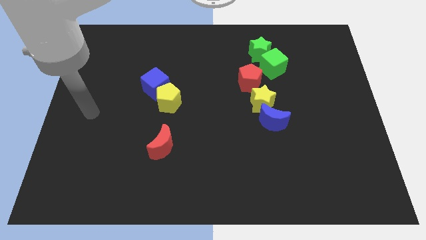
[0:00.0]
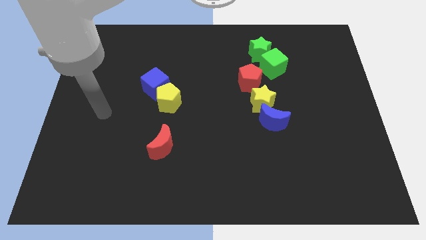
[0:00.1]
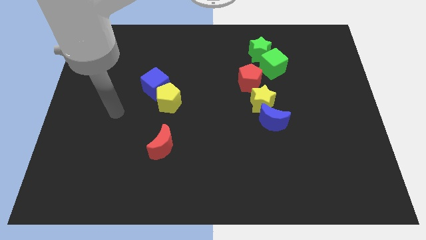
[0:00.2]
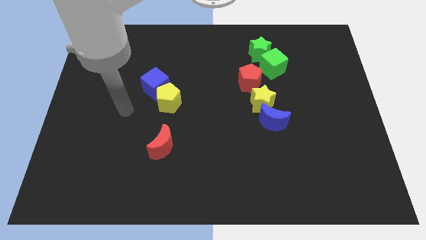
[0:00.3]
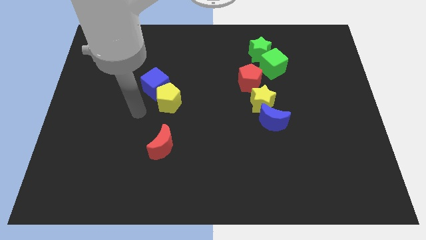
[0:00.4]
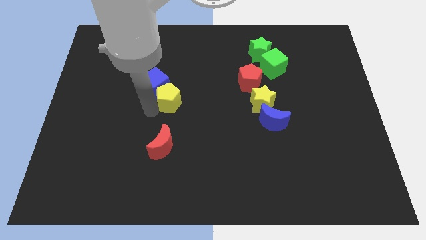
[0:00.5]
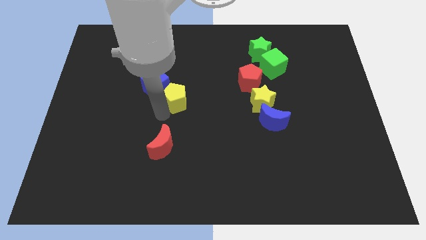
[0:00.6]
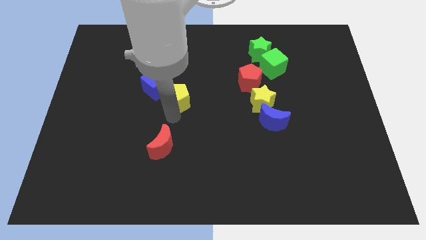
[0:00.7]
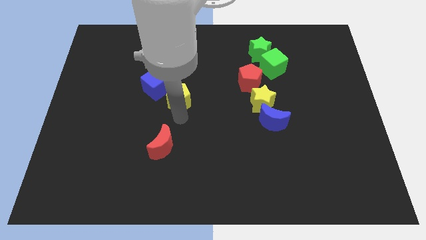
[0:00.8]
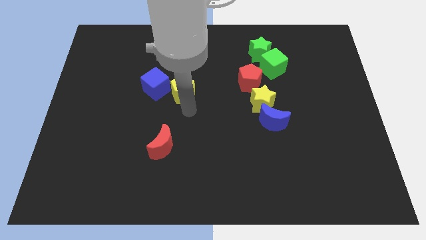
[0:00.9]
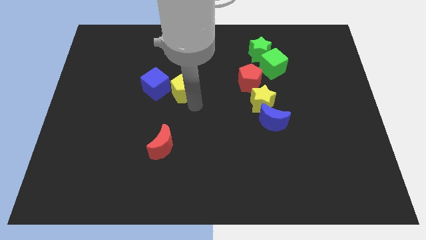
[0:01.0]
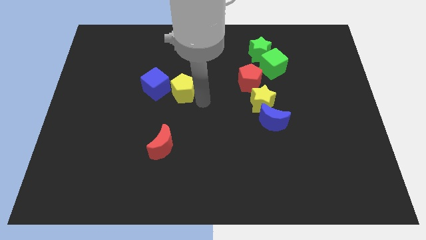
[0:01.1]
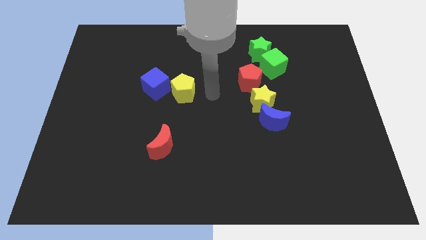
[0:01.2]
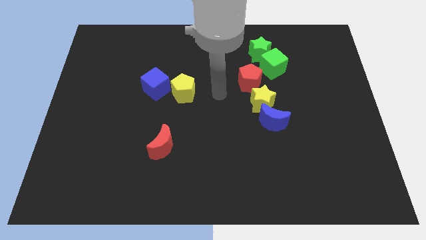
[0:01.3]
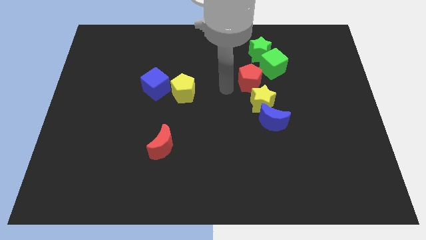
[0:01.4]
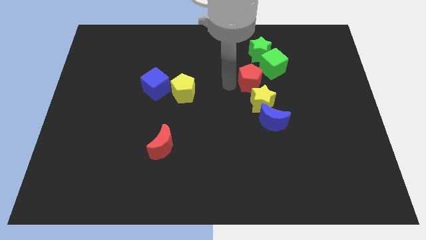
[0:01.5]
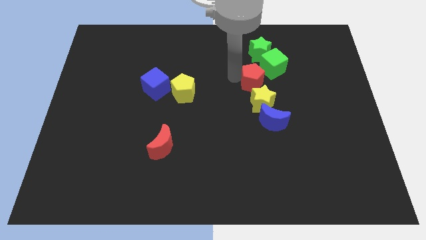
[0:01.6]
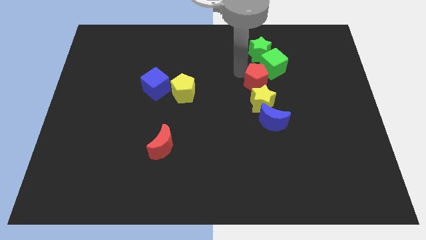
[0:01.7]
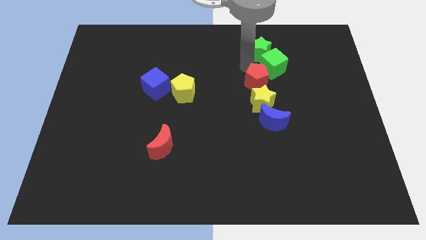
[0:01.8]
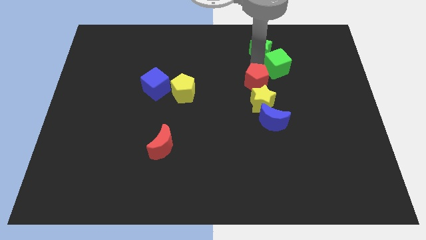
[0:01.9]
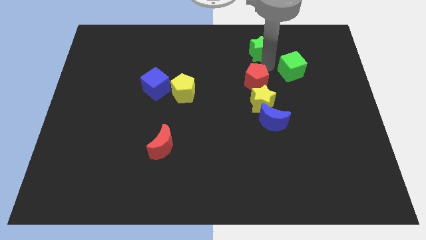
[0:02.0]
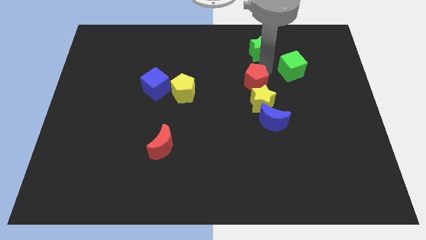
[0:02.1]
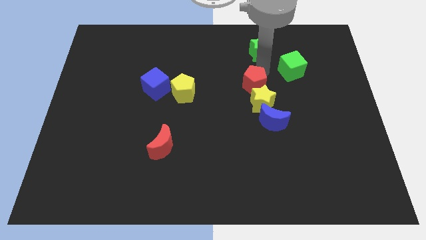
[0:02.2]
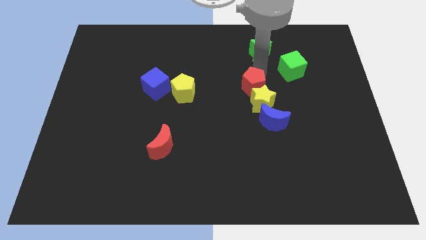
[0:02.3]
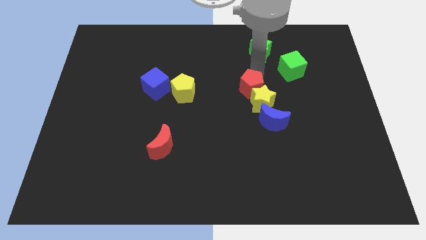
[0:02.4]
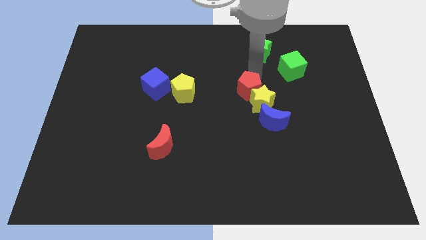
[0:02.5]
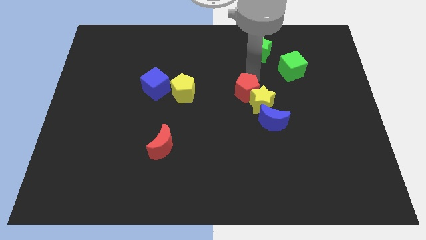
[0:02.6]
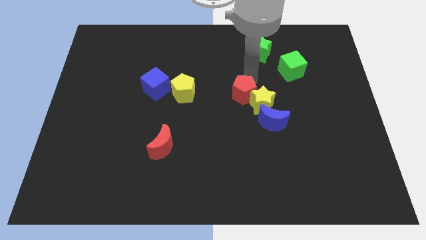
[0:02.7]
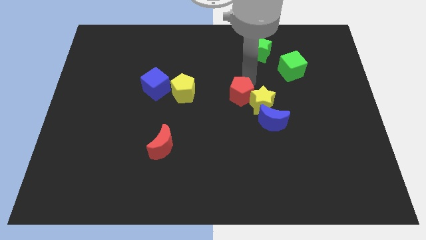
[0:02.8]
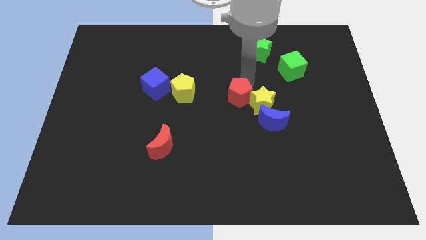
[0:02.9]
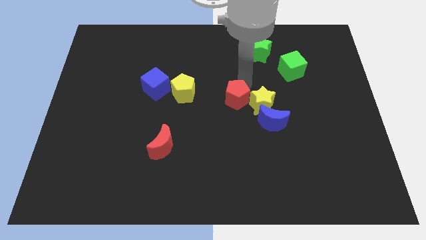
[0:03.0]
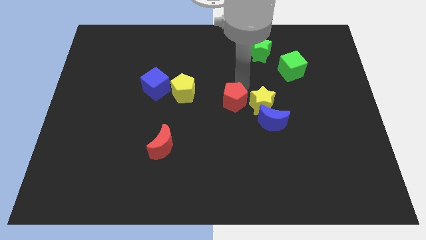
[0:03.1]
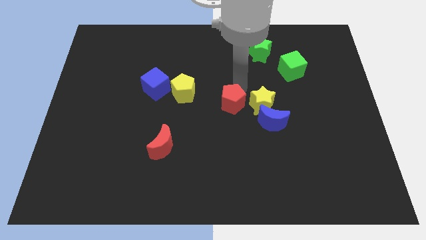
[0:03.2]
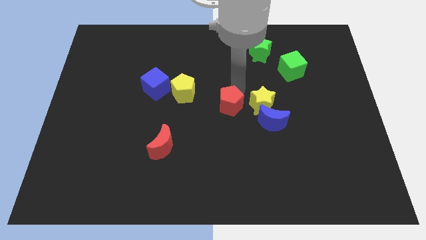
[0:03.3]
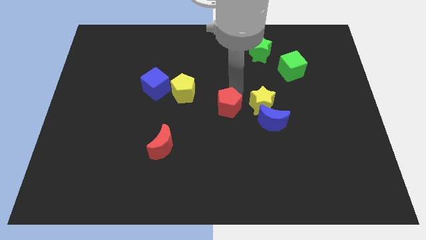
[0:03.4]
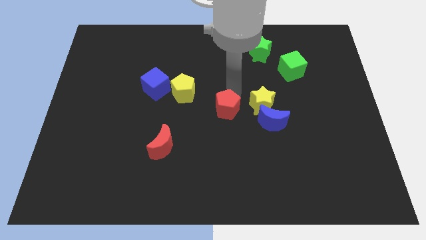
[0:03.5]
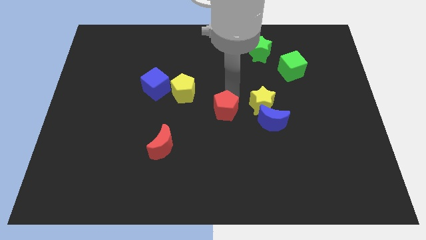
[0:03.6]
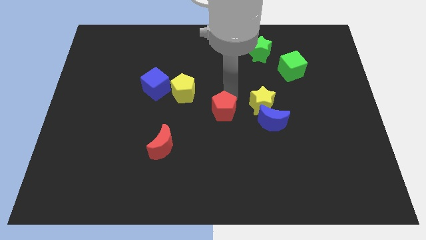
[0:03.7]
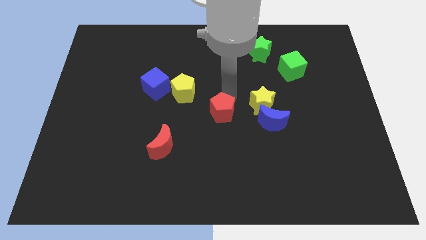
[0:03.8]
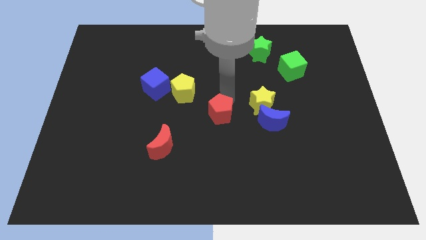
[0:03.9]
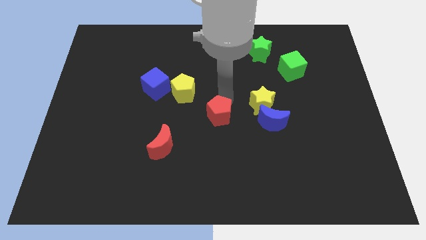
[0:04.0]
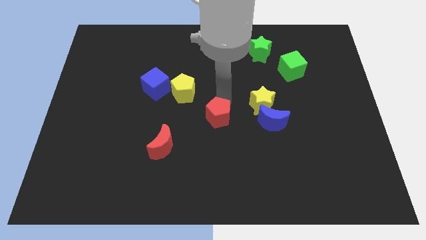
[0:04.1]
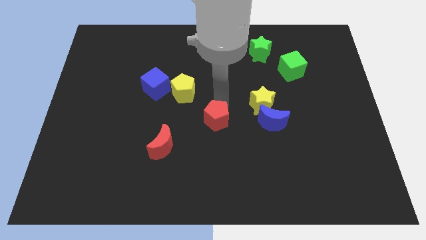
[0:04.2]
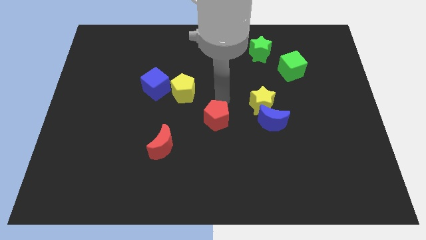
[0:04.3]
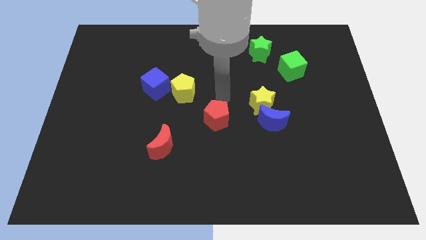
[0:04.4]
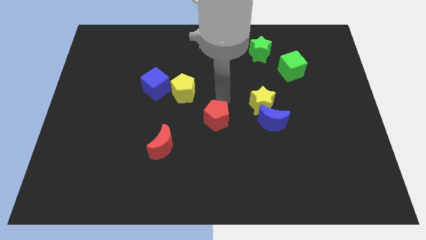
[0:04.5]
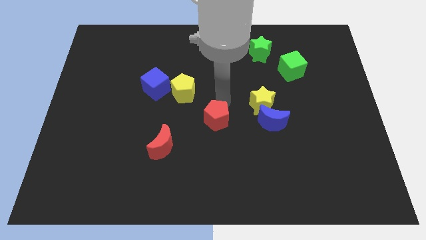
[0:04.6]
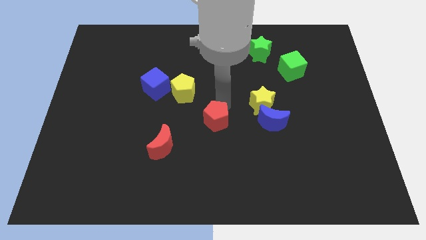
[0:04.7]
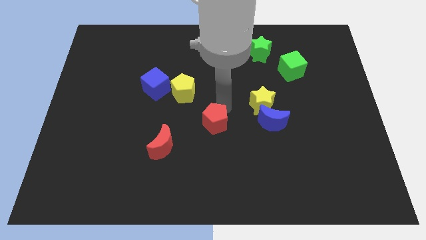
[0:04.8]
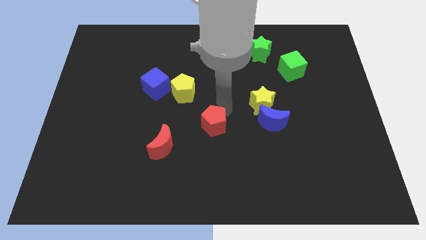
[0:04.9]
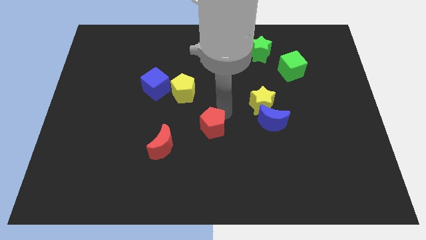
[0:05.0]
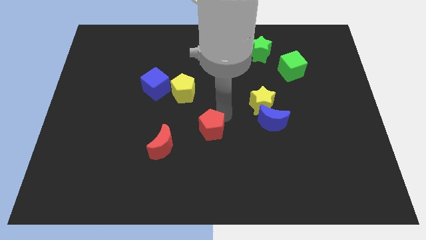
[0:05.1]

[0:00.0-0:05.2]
push the red pentagon to the right of the red moon

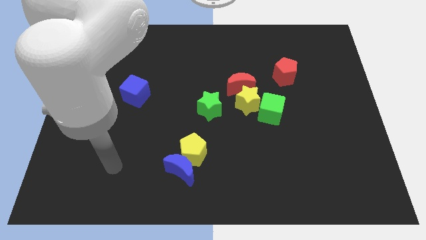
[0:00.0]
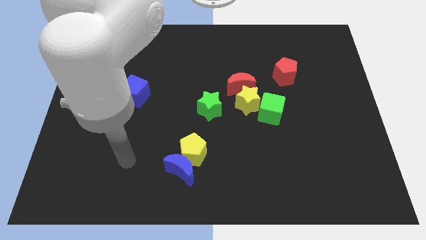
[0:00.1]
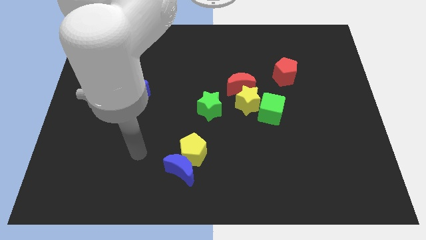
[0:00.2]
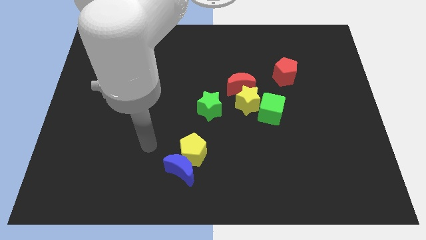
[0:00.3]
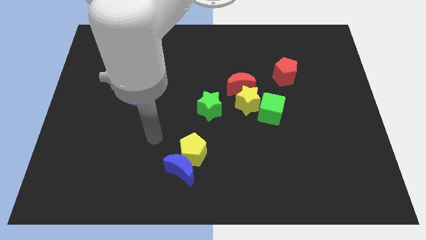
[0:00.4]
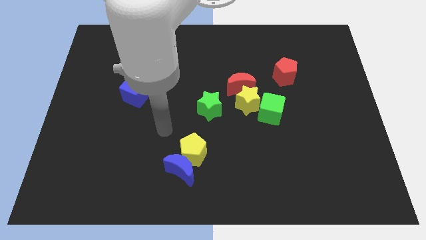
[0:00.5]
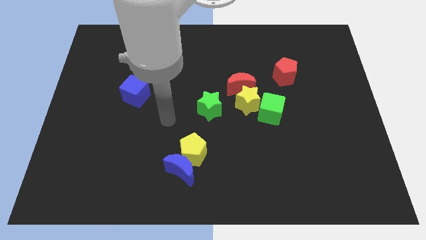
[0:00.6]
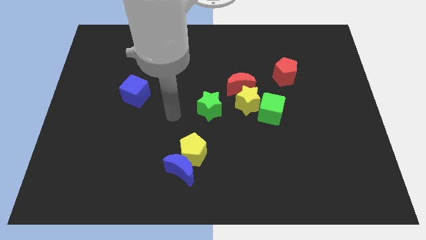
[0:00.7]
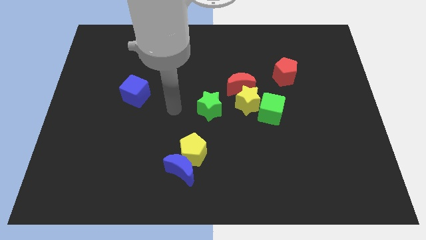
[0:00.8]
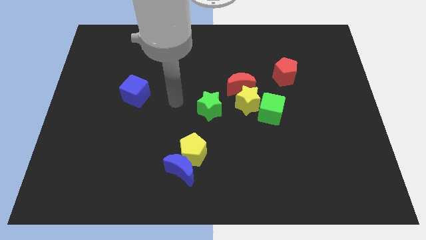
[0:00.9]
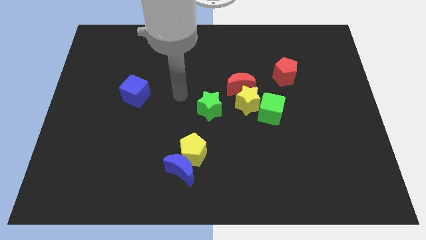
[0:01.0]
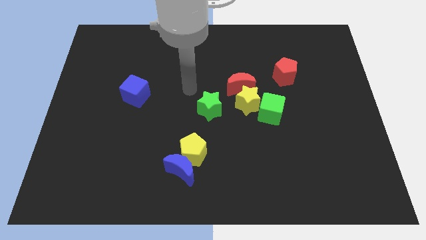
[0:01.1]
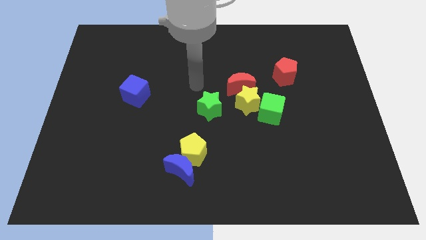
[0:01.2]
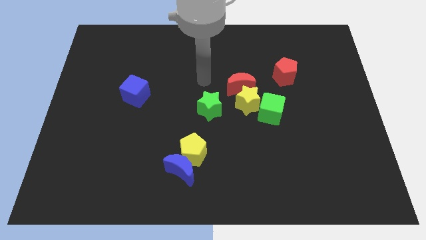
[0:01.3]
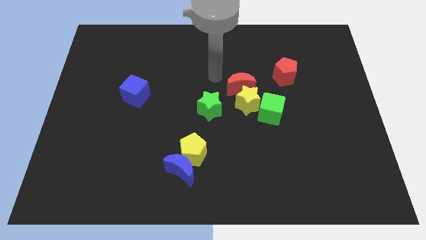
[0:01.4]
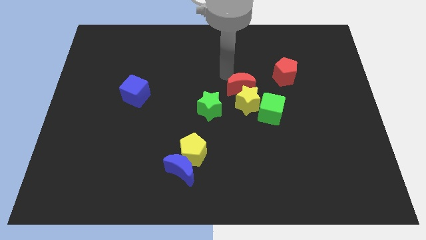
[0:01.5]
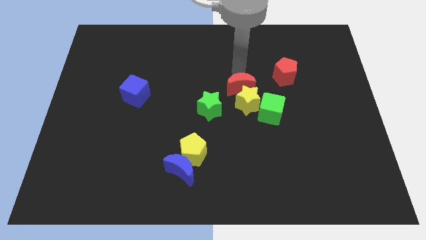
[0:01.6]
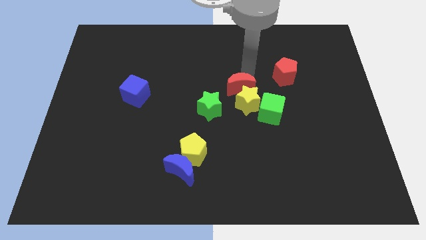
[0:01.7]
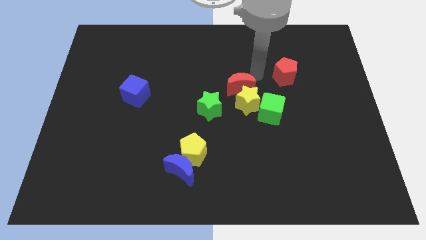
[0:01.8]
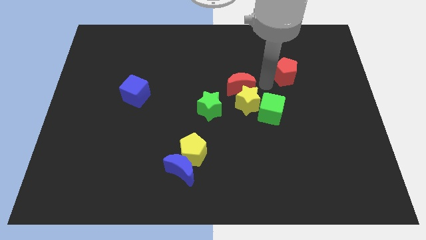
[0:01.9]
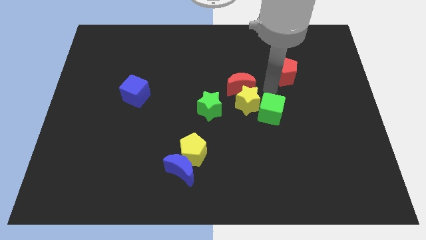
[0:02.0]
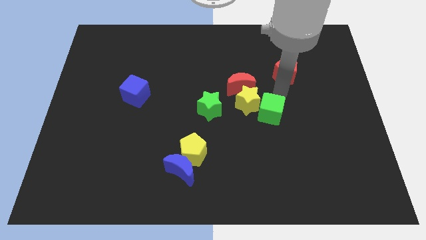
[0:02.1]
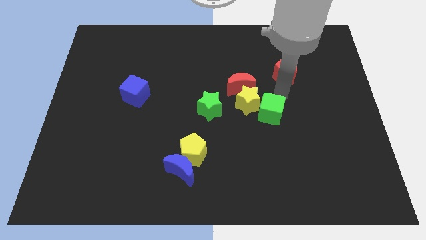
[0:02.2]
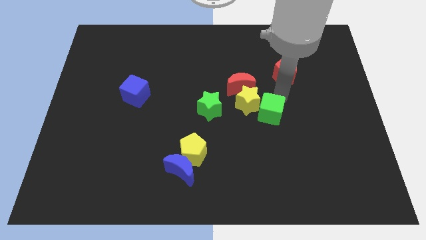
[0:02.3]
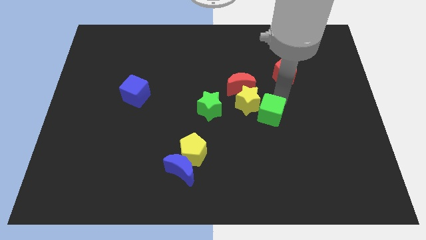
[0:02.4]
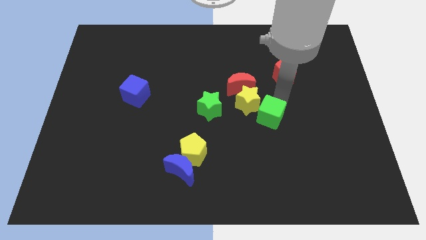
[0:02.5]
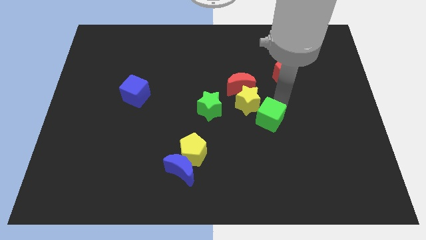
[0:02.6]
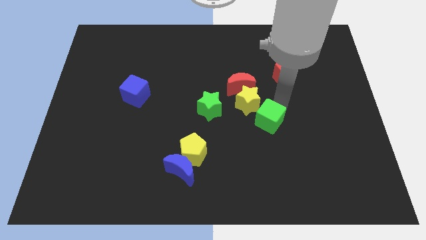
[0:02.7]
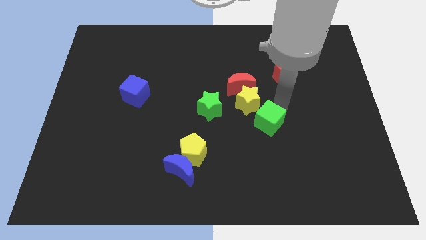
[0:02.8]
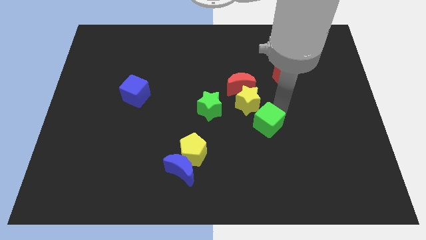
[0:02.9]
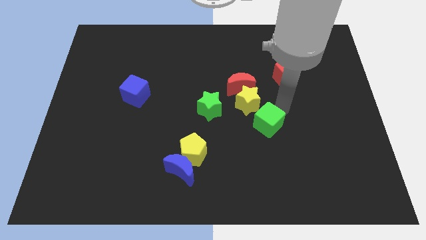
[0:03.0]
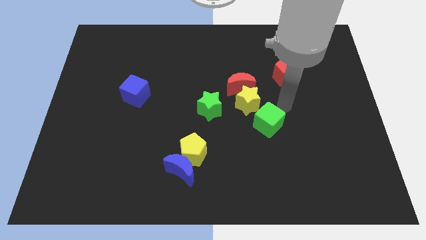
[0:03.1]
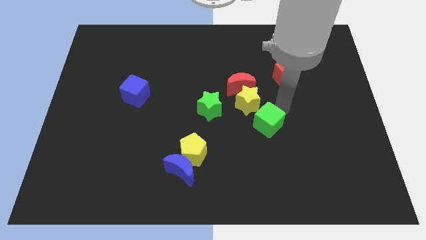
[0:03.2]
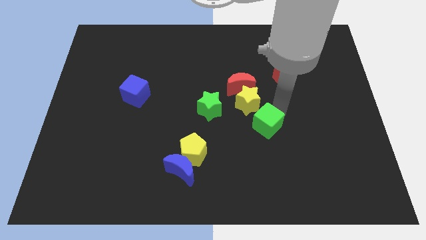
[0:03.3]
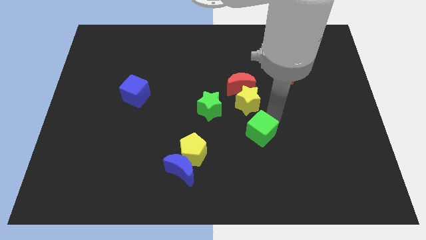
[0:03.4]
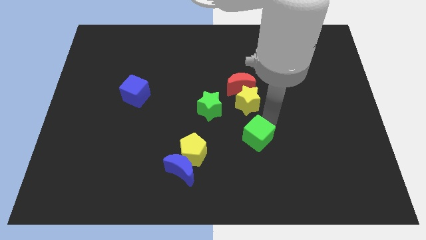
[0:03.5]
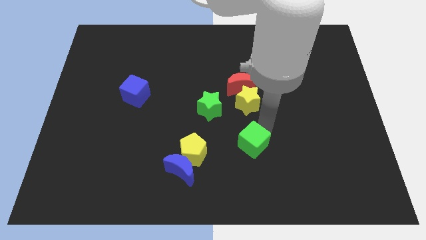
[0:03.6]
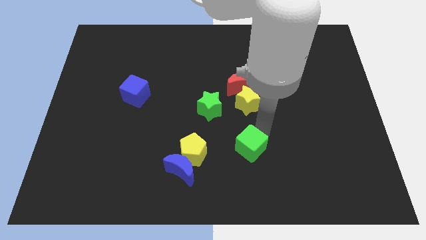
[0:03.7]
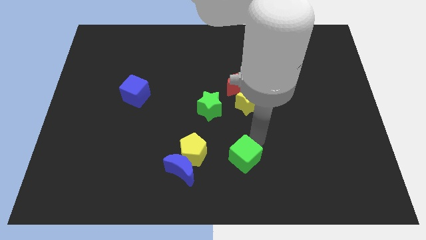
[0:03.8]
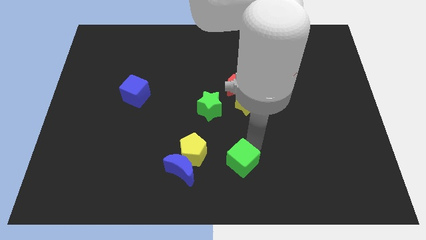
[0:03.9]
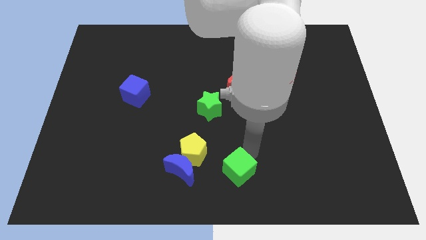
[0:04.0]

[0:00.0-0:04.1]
put the green cube to the bottom right side of the yellow pentagon
